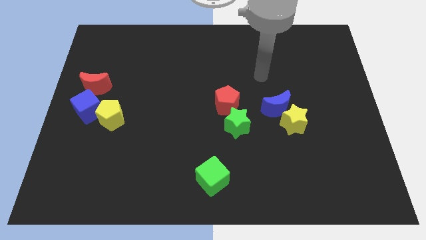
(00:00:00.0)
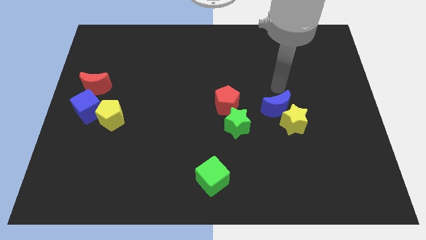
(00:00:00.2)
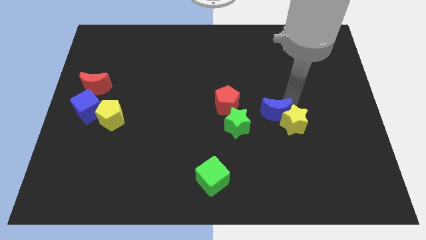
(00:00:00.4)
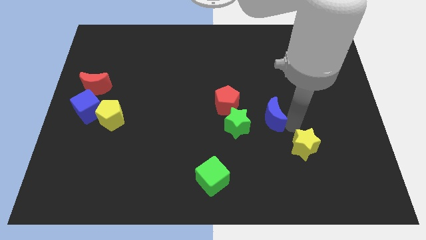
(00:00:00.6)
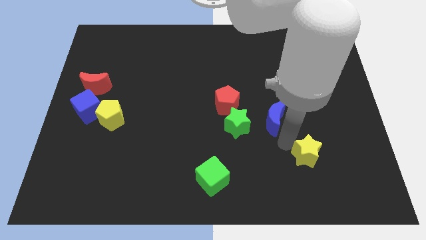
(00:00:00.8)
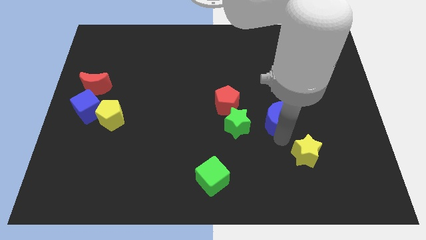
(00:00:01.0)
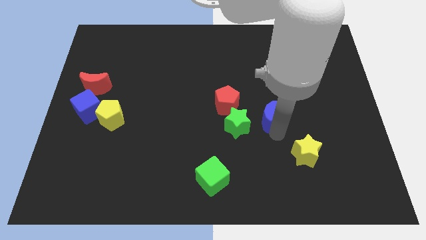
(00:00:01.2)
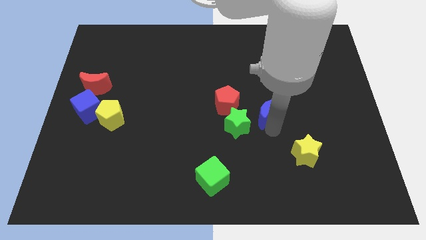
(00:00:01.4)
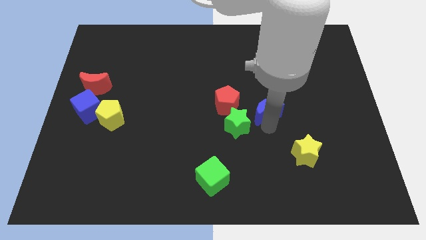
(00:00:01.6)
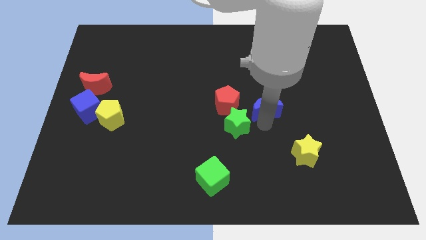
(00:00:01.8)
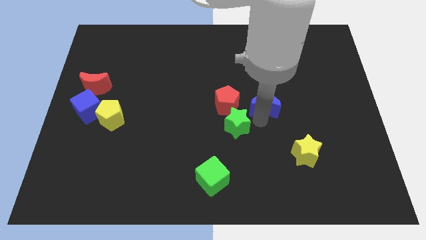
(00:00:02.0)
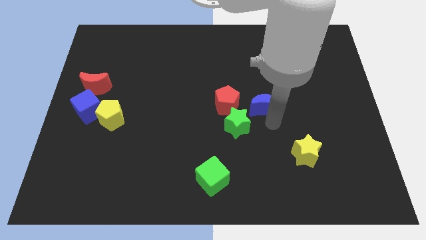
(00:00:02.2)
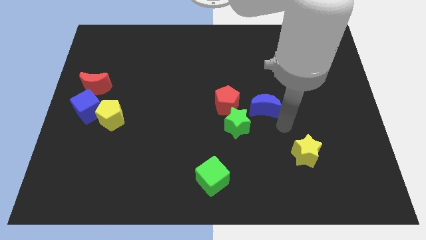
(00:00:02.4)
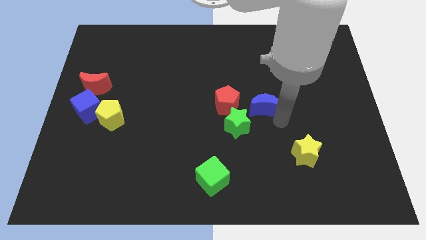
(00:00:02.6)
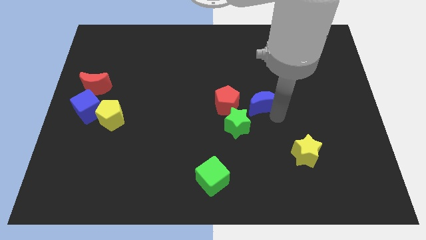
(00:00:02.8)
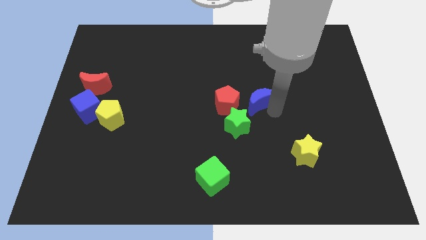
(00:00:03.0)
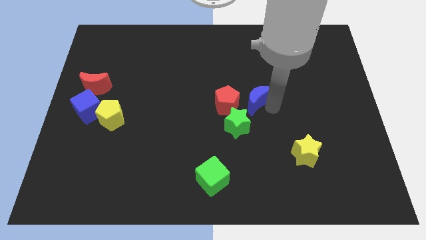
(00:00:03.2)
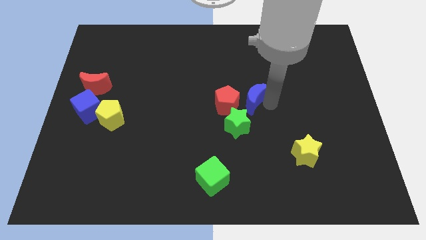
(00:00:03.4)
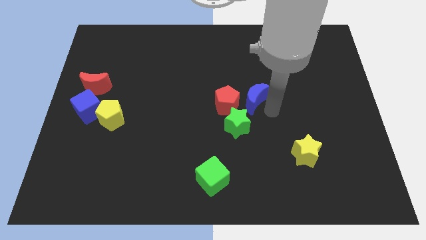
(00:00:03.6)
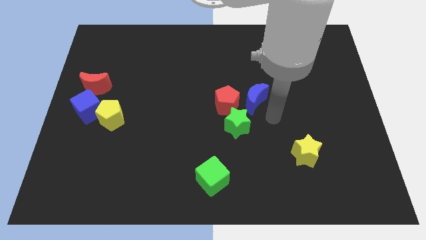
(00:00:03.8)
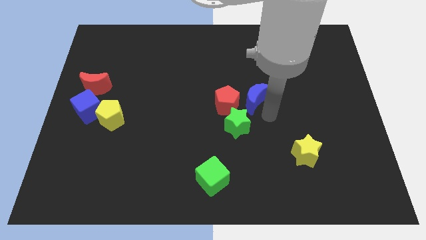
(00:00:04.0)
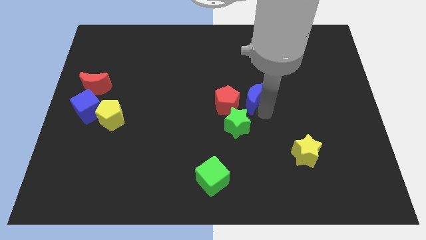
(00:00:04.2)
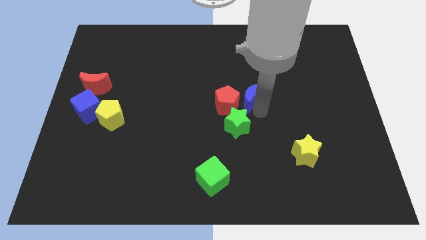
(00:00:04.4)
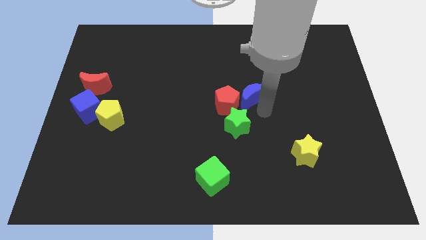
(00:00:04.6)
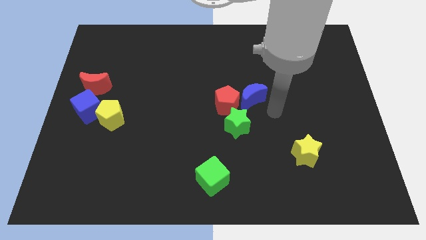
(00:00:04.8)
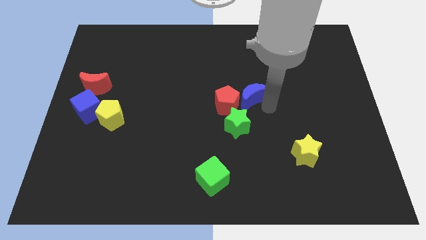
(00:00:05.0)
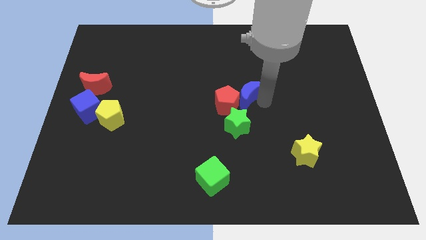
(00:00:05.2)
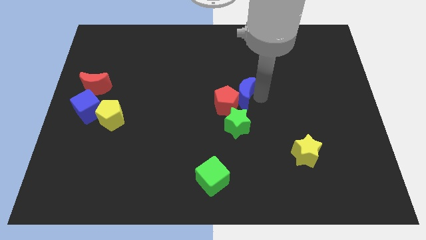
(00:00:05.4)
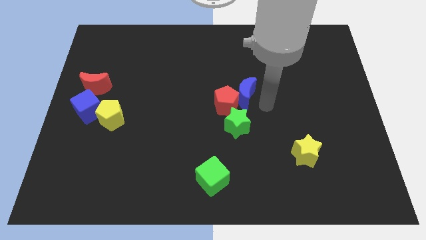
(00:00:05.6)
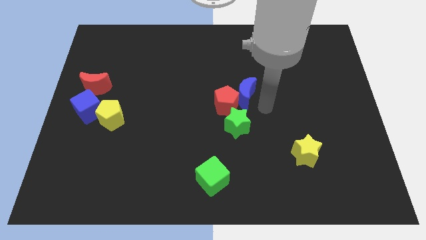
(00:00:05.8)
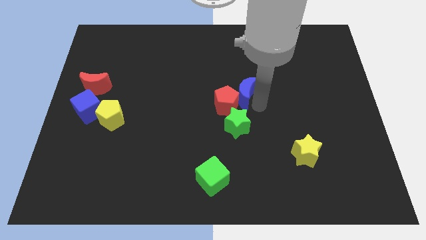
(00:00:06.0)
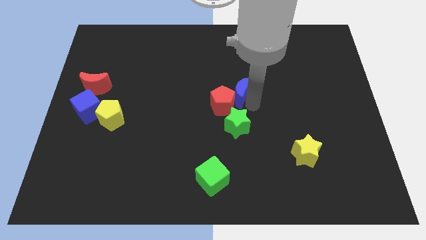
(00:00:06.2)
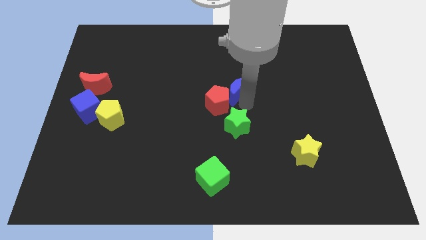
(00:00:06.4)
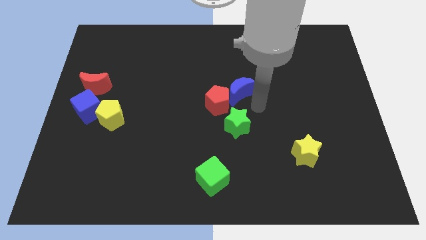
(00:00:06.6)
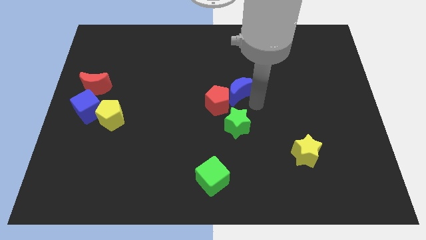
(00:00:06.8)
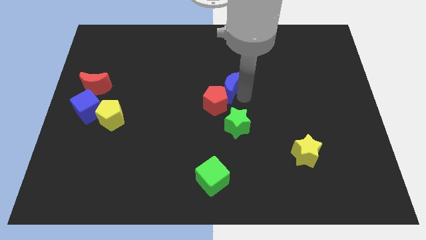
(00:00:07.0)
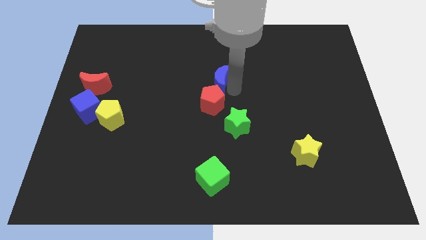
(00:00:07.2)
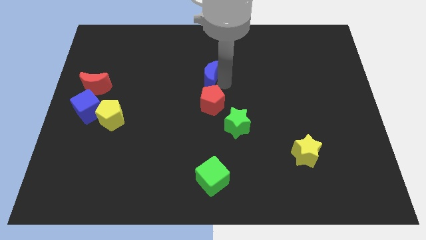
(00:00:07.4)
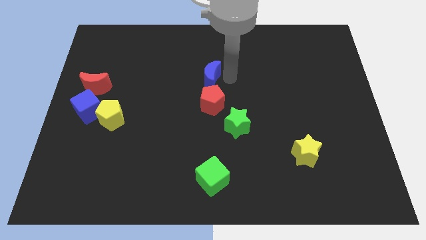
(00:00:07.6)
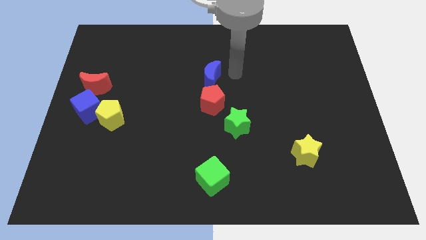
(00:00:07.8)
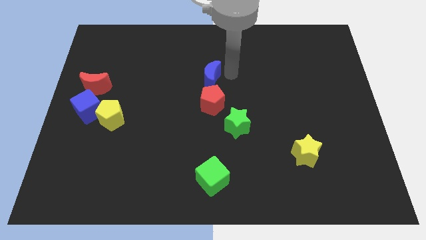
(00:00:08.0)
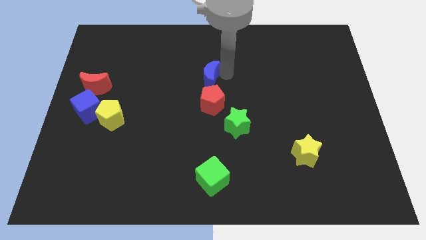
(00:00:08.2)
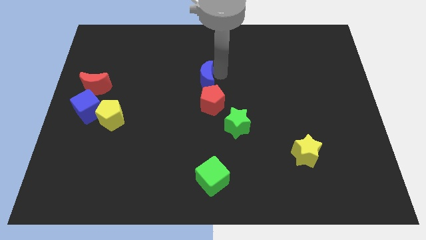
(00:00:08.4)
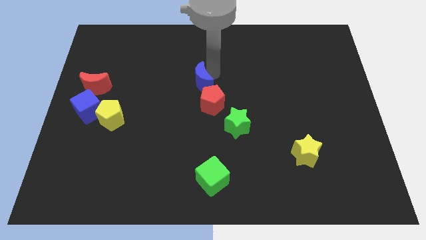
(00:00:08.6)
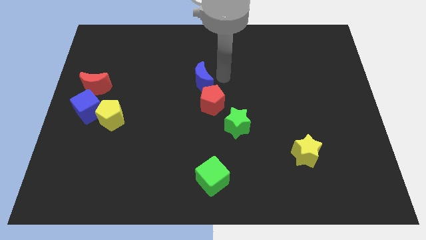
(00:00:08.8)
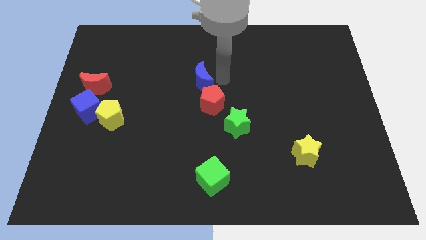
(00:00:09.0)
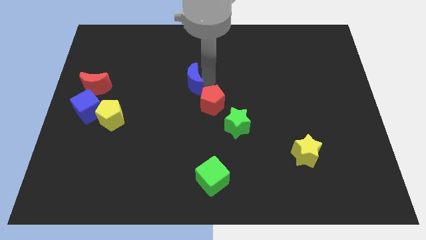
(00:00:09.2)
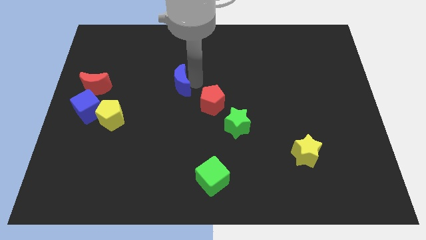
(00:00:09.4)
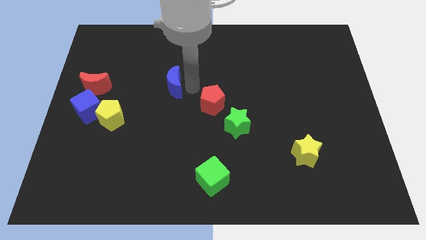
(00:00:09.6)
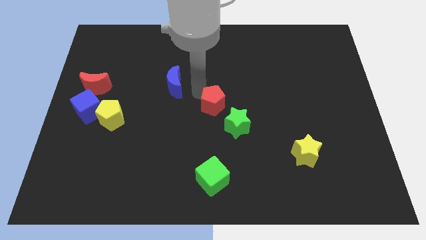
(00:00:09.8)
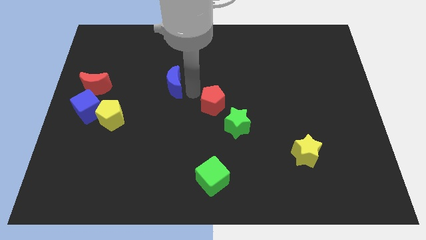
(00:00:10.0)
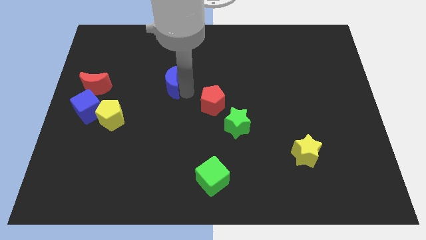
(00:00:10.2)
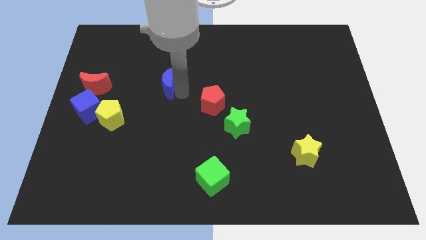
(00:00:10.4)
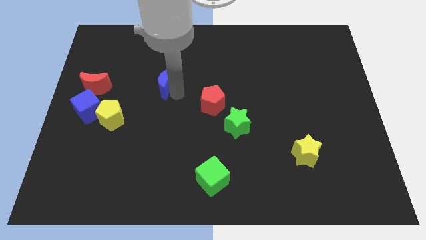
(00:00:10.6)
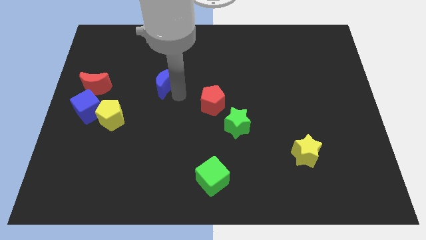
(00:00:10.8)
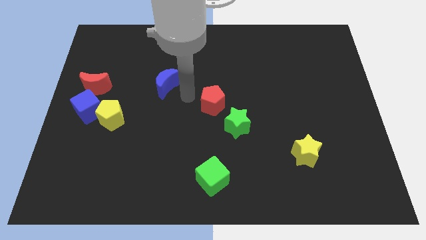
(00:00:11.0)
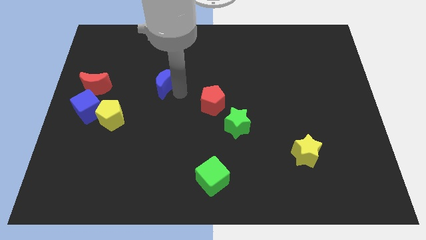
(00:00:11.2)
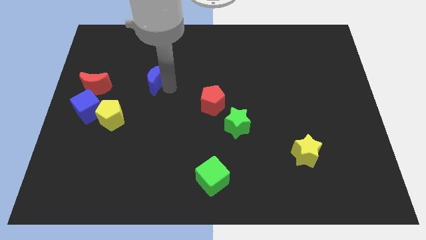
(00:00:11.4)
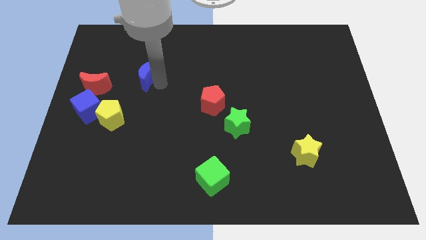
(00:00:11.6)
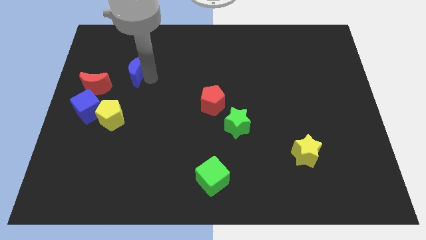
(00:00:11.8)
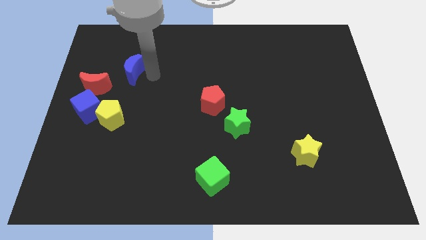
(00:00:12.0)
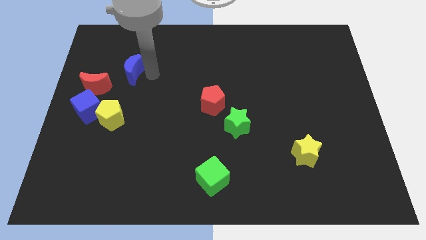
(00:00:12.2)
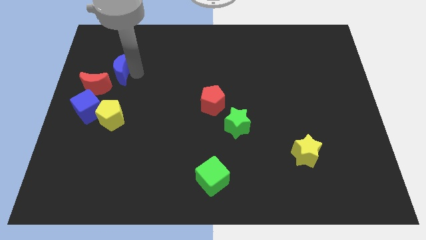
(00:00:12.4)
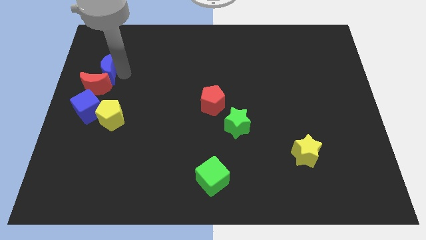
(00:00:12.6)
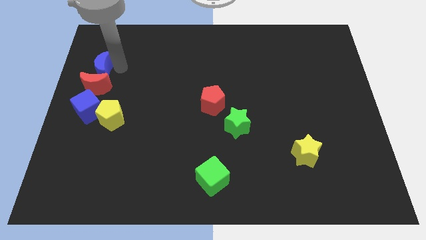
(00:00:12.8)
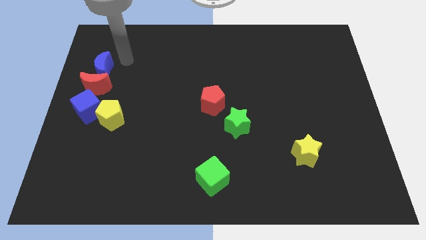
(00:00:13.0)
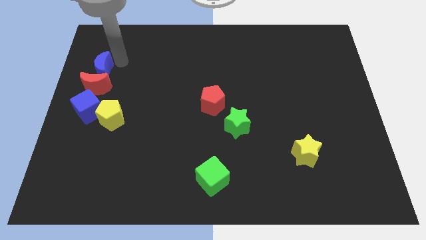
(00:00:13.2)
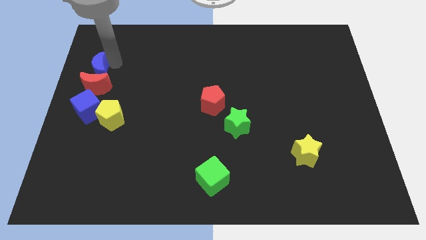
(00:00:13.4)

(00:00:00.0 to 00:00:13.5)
slide the blue moon to the center left
